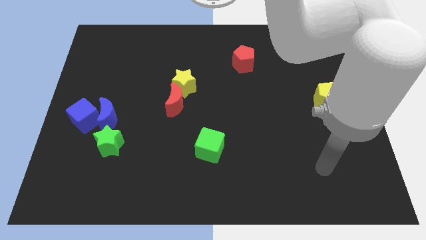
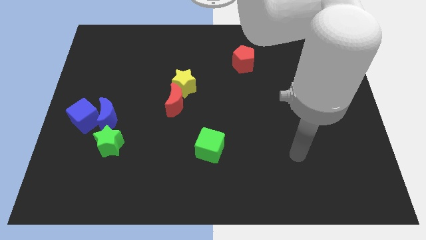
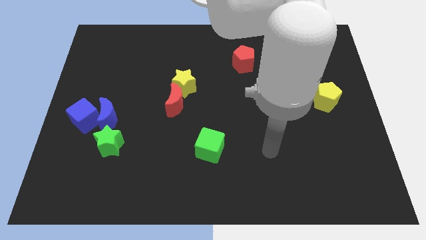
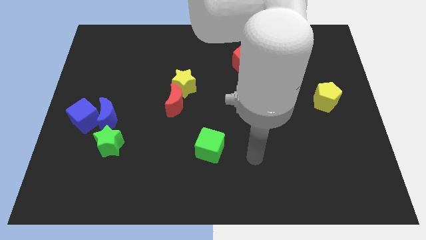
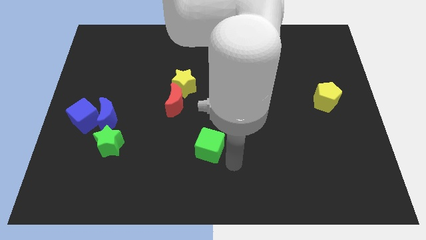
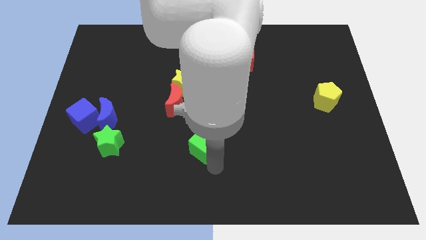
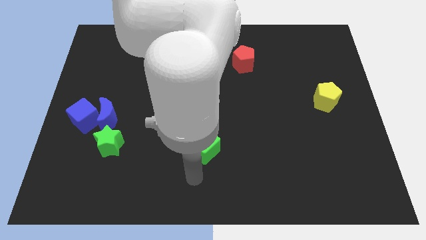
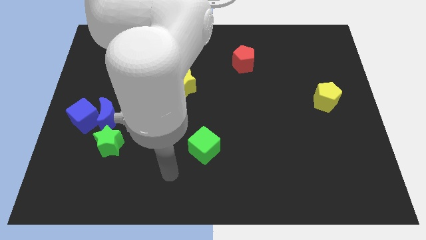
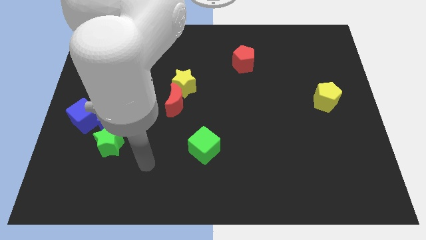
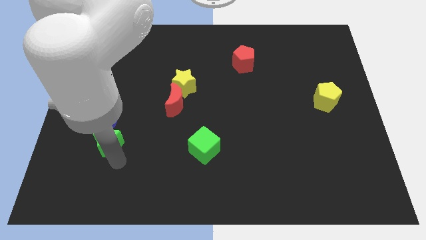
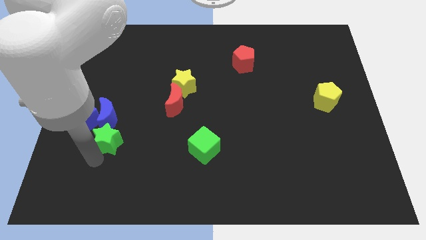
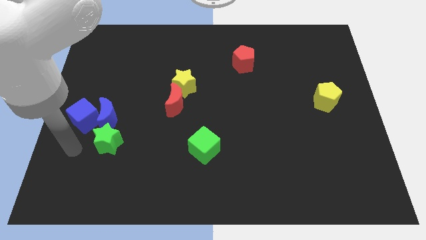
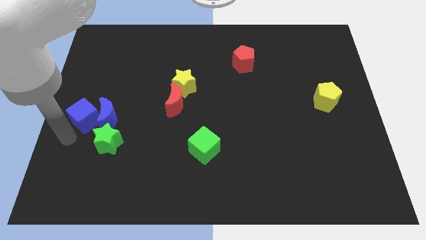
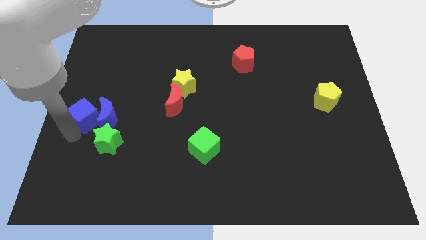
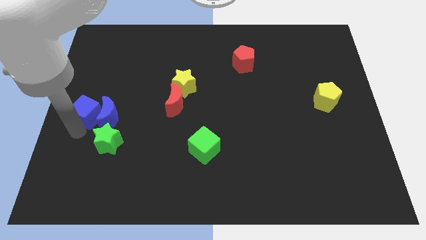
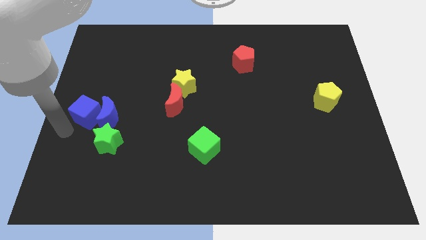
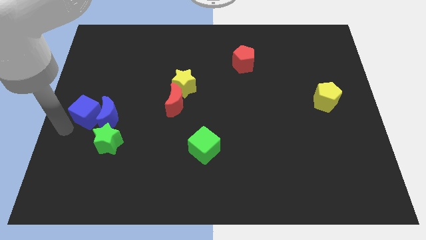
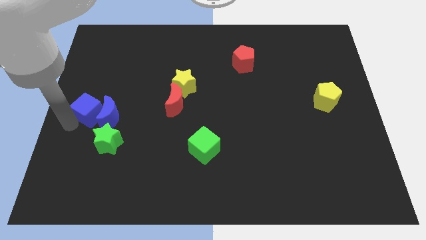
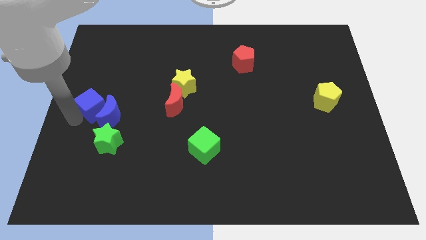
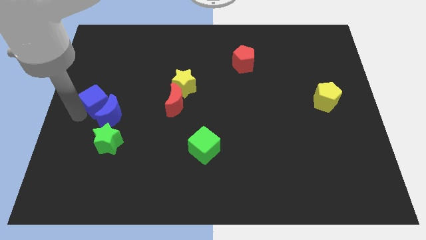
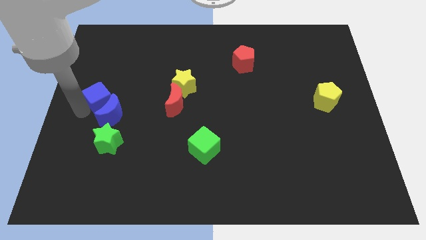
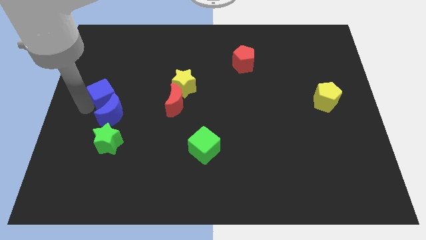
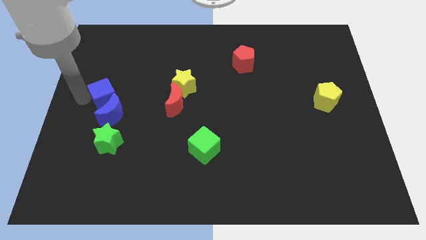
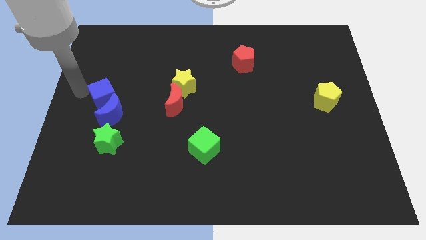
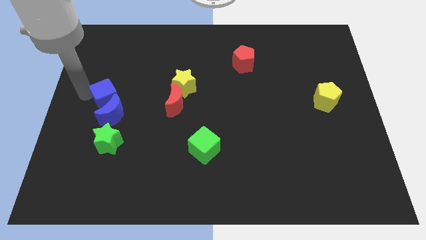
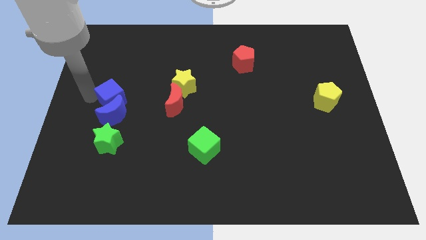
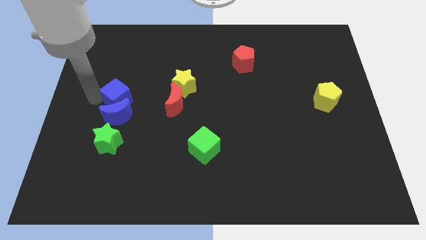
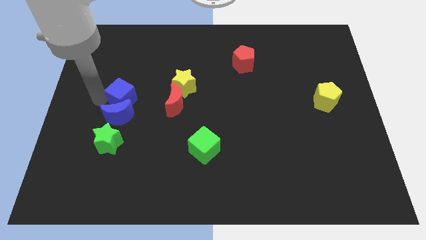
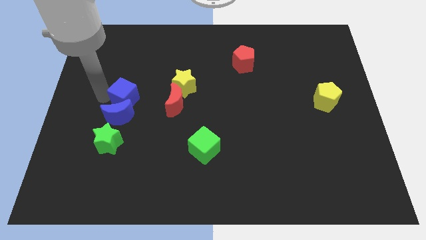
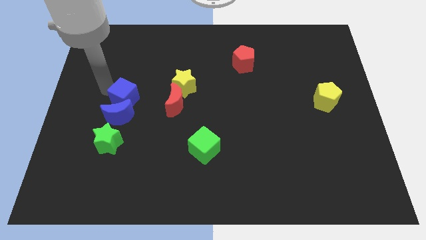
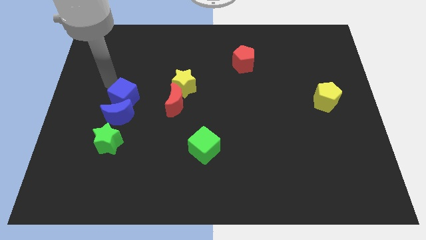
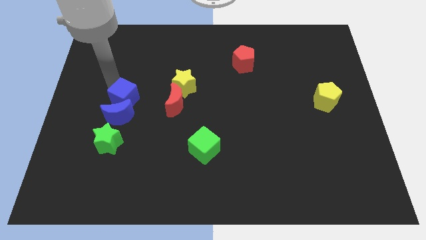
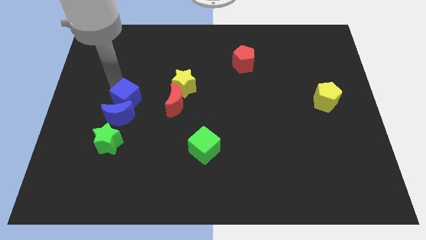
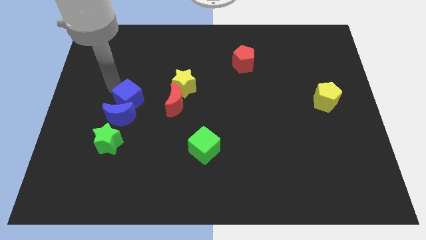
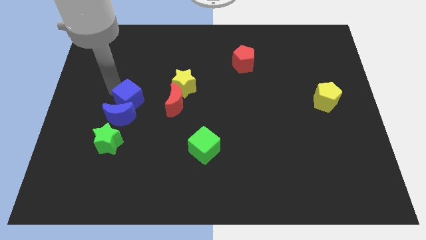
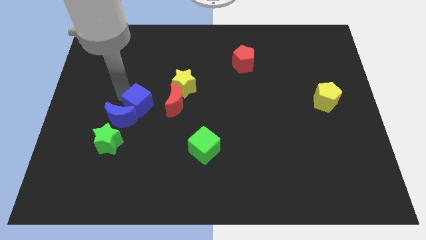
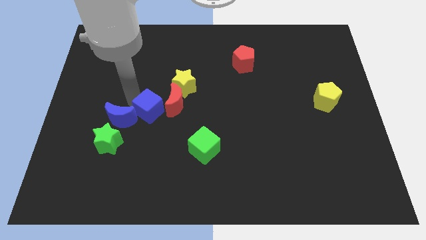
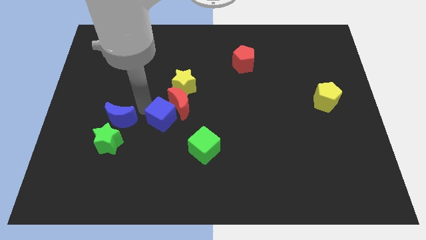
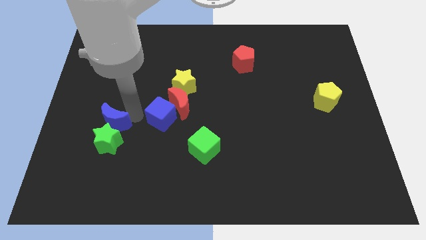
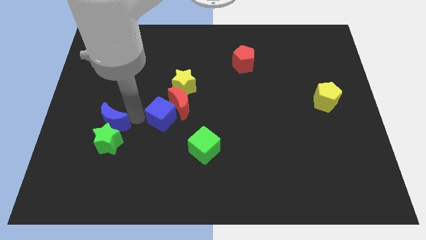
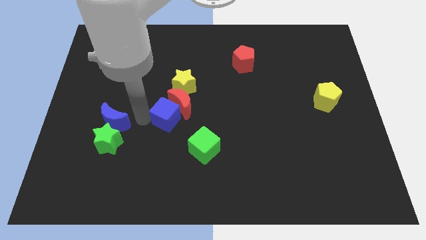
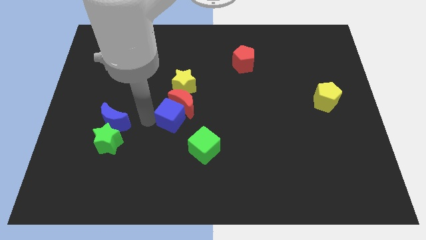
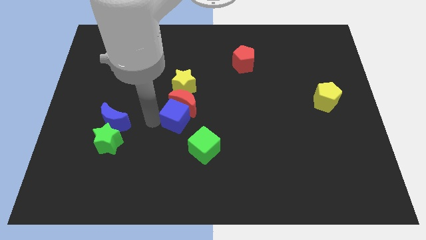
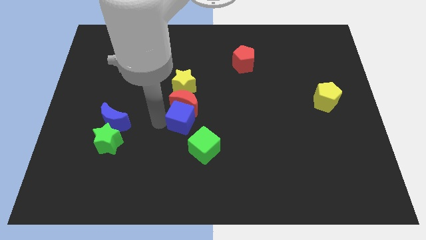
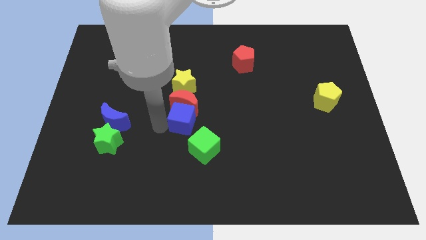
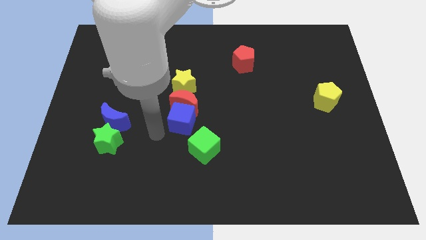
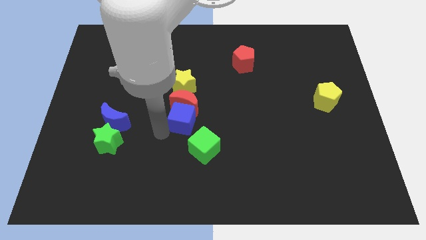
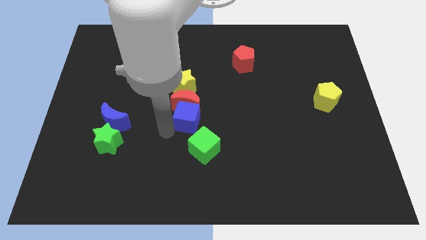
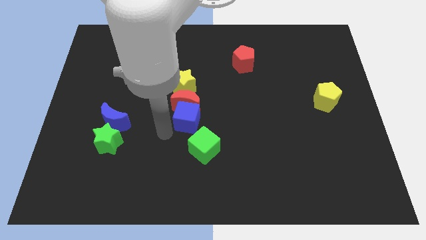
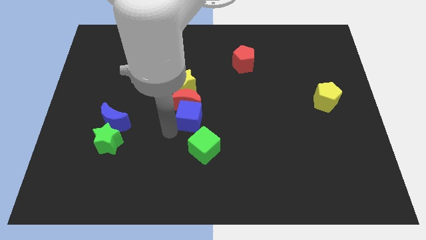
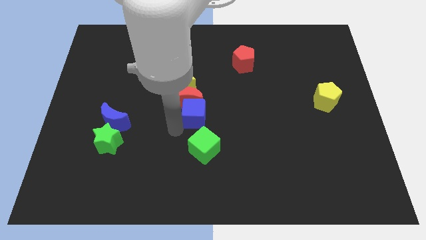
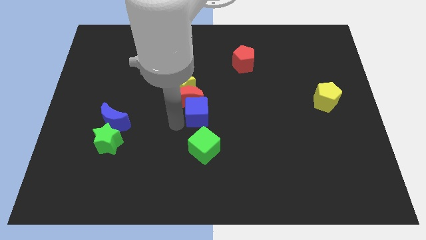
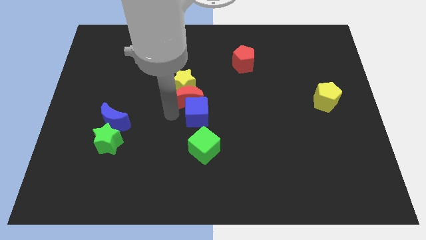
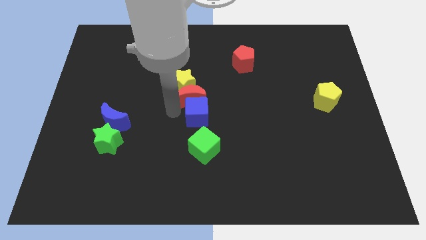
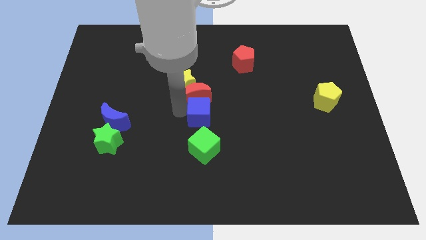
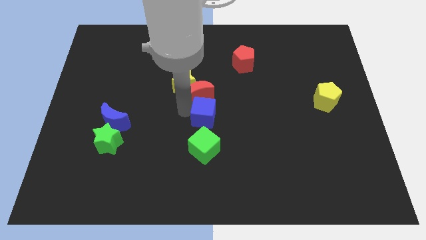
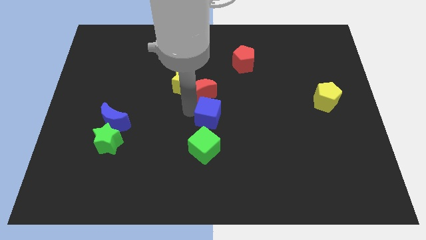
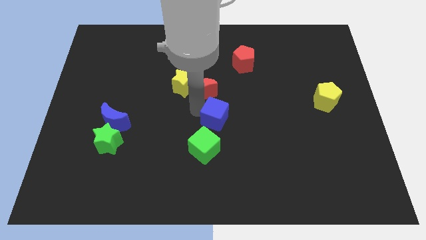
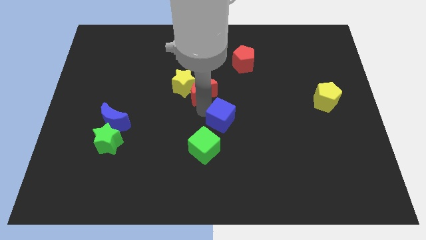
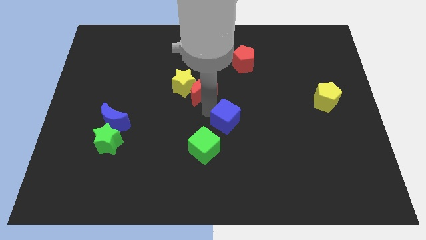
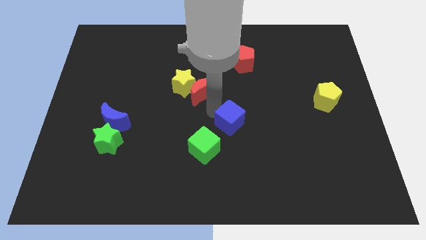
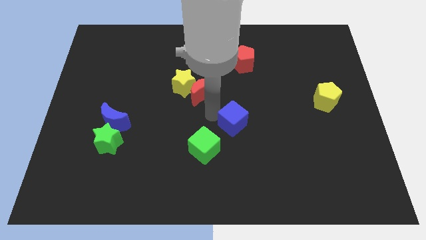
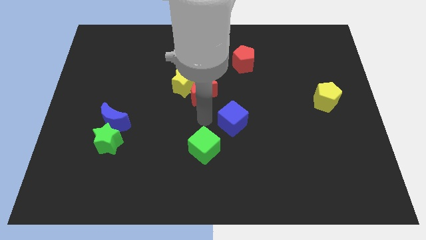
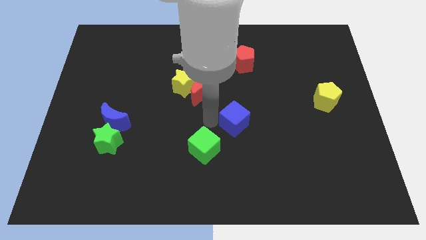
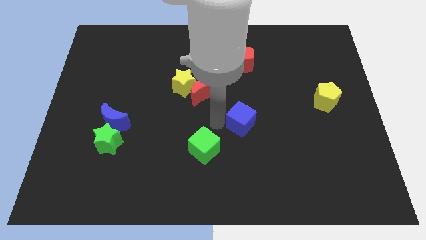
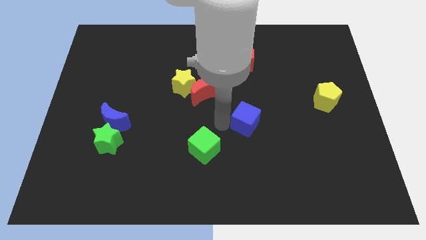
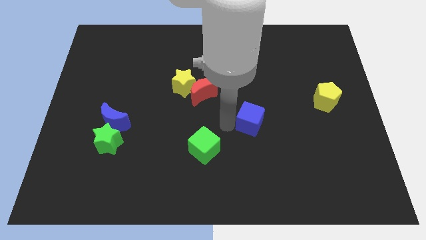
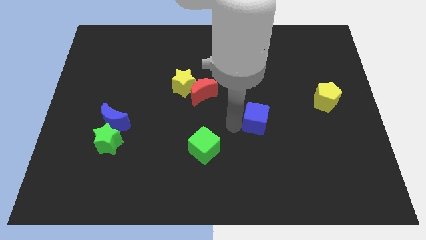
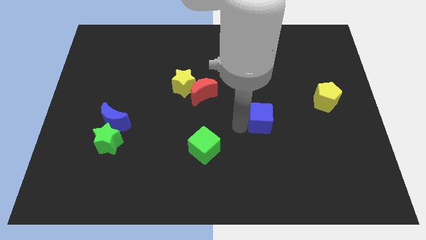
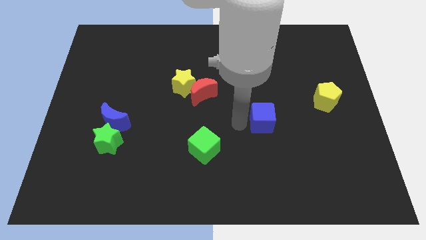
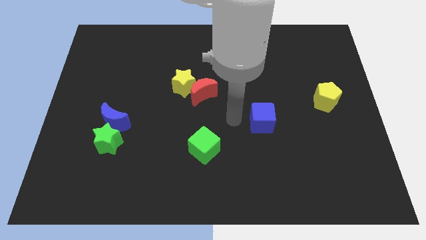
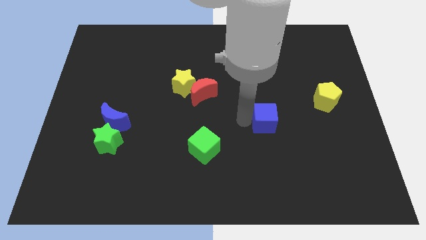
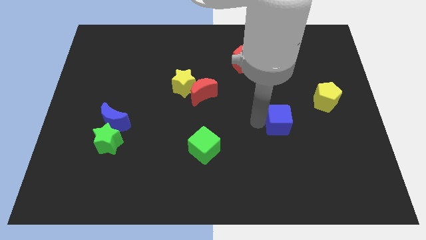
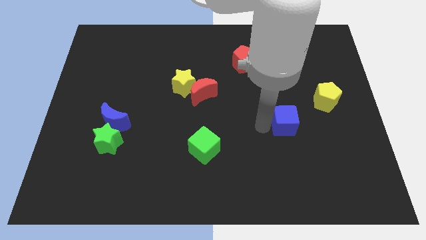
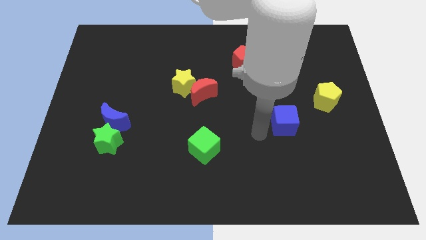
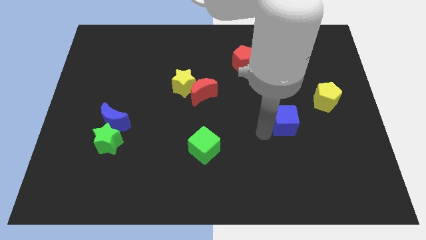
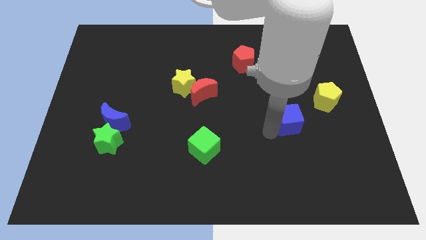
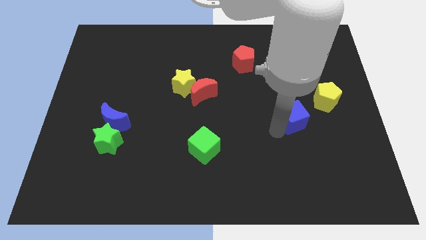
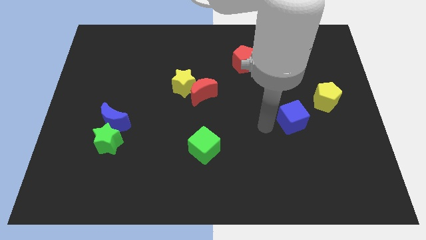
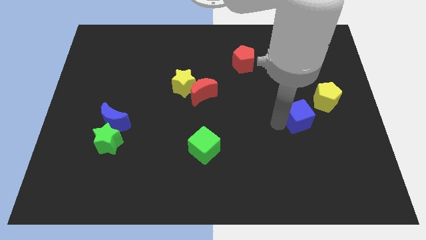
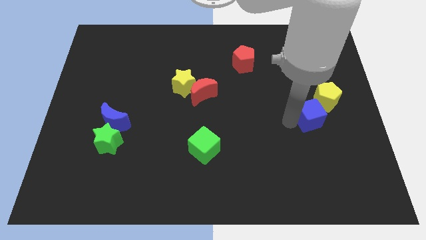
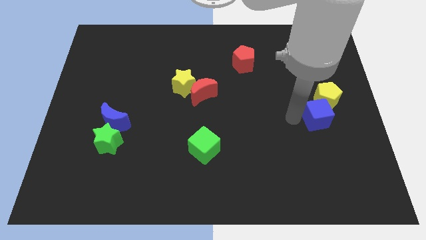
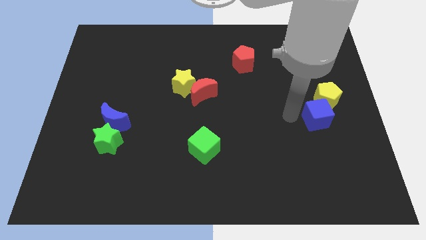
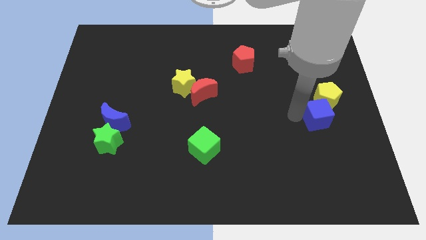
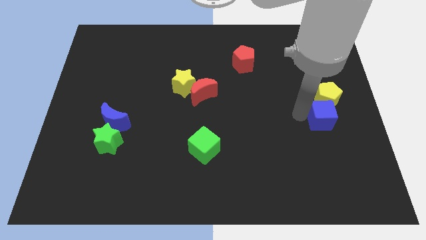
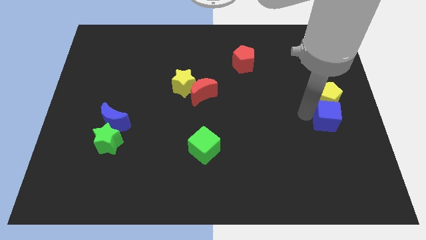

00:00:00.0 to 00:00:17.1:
slide the blue cube to the right side of the board
